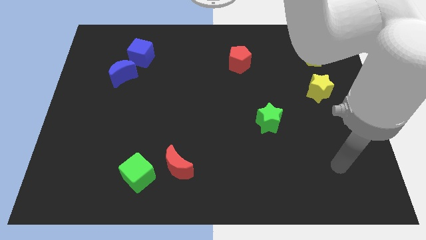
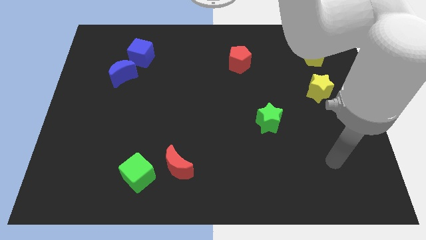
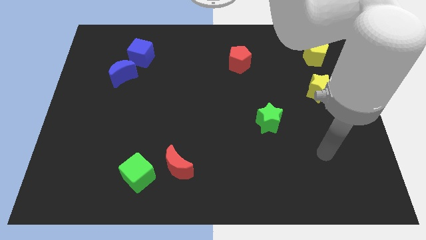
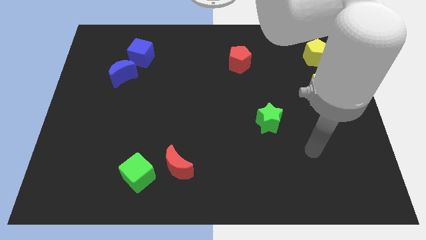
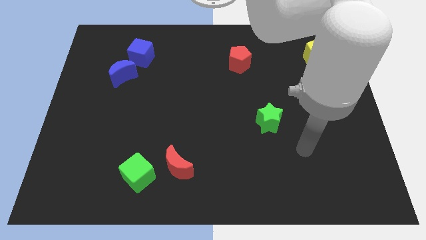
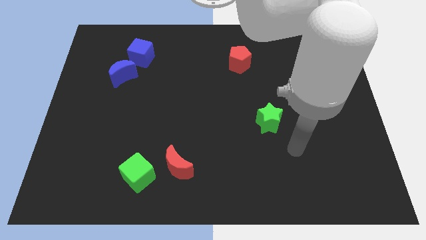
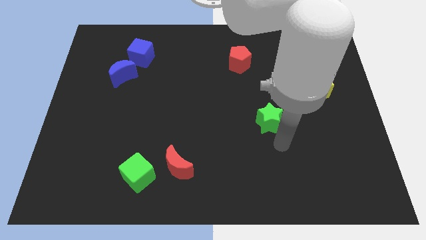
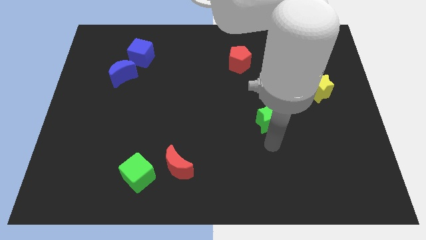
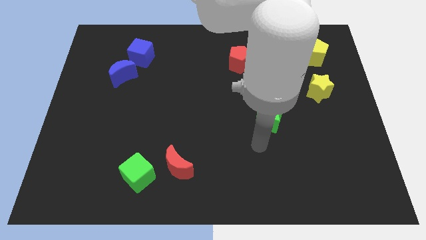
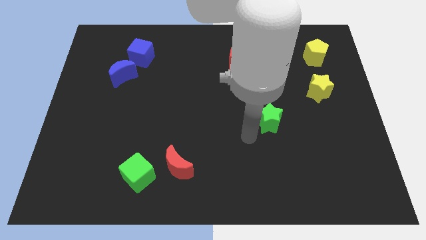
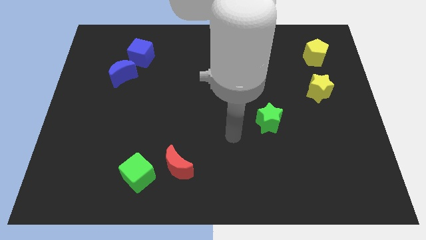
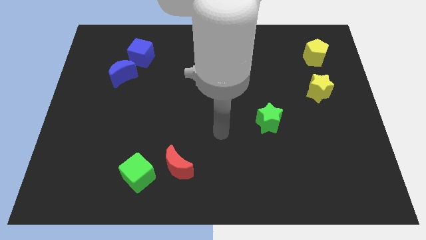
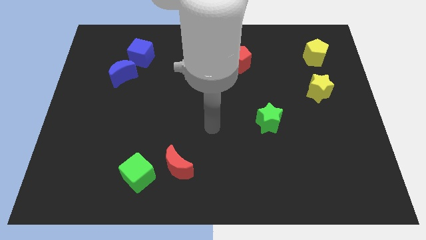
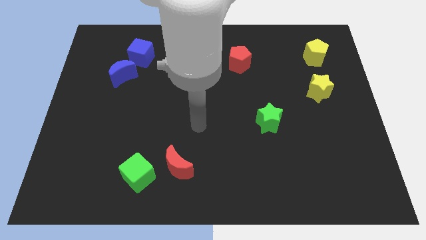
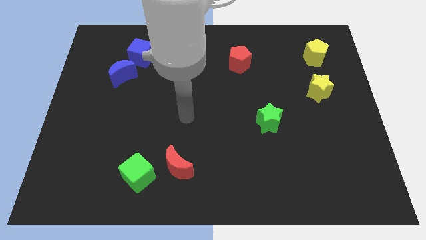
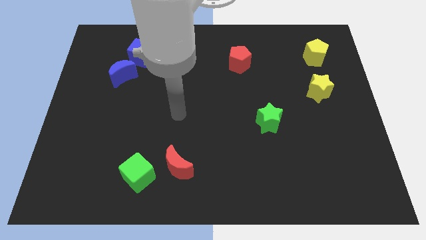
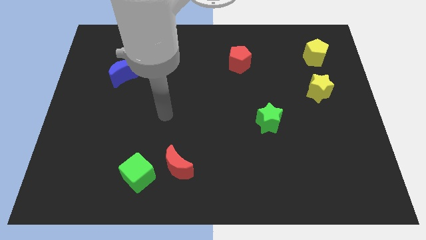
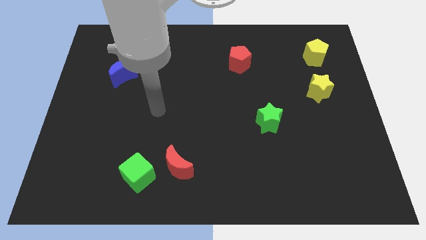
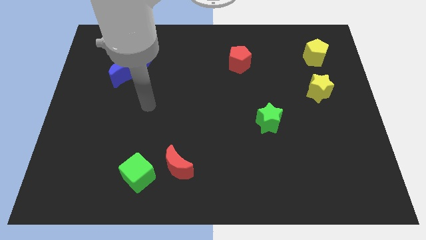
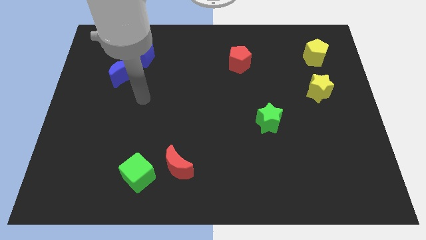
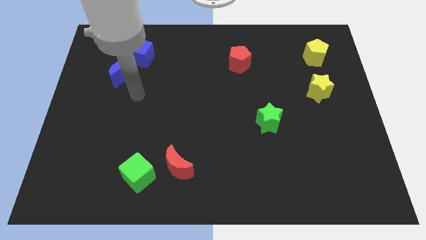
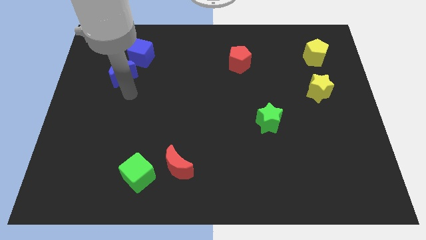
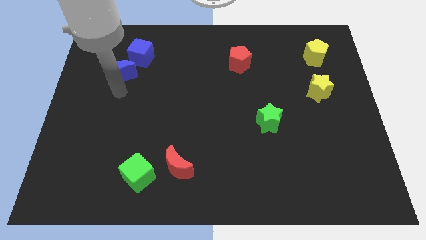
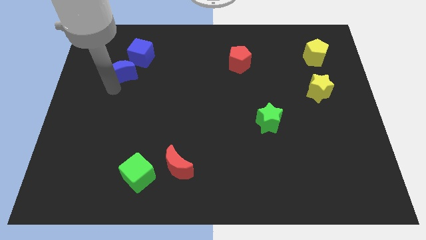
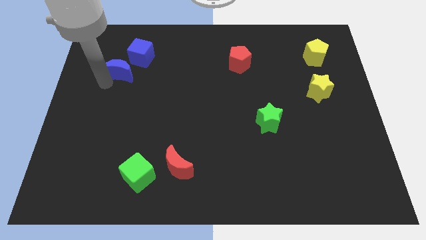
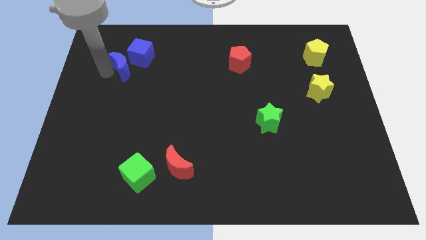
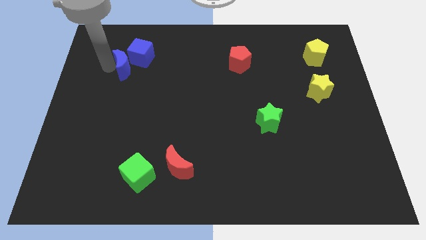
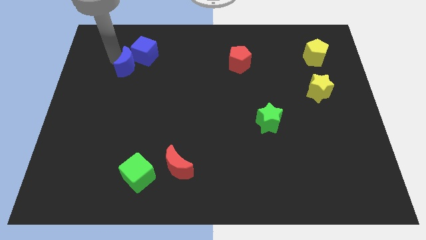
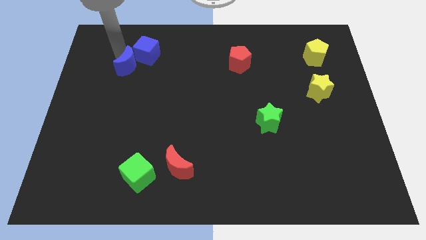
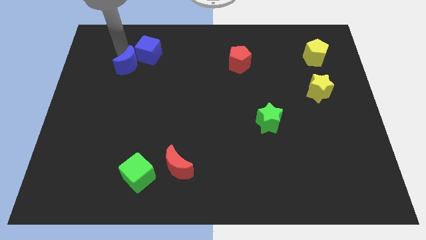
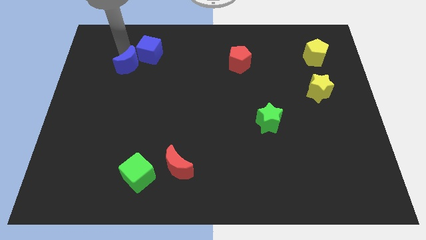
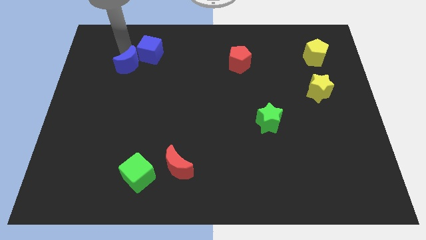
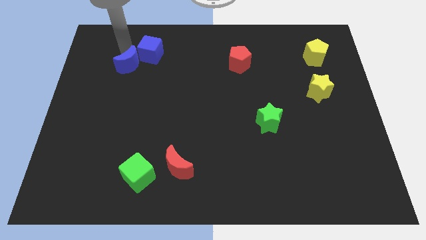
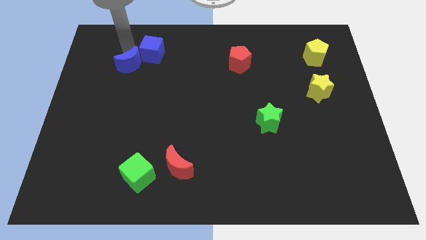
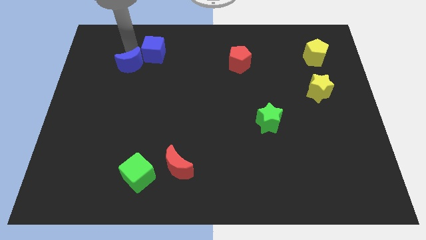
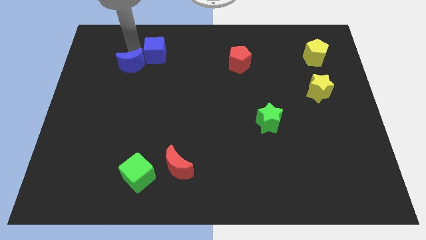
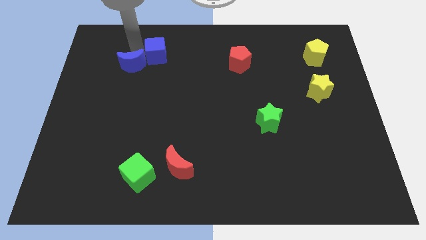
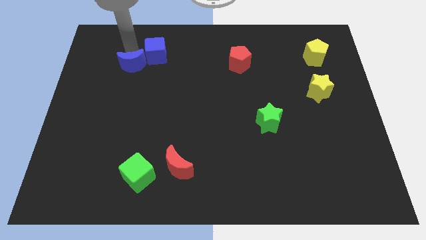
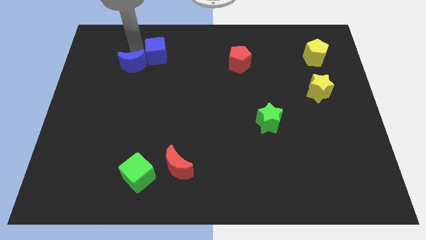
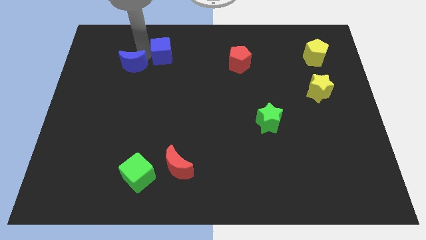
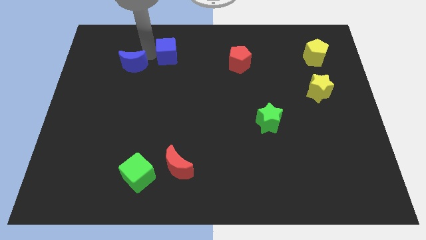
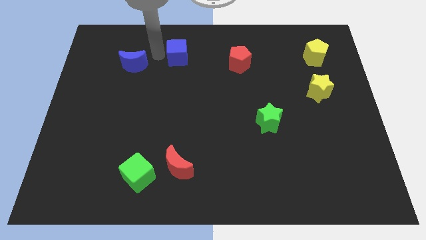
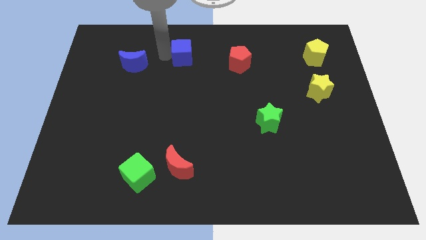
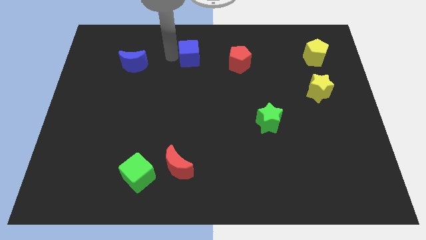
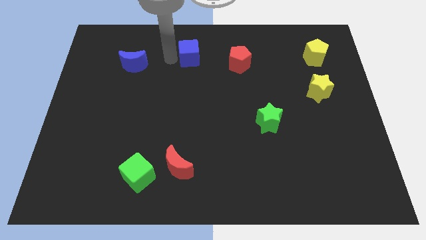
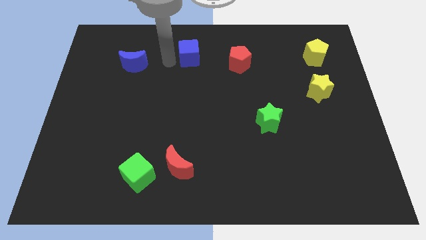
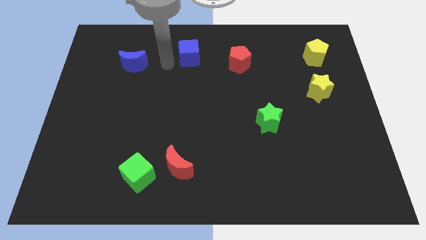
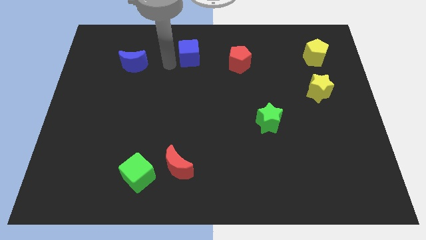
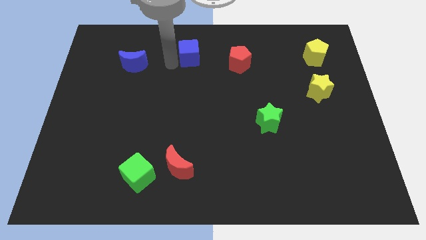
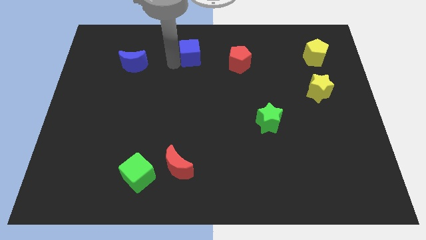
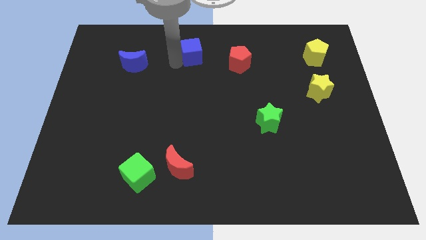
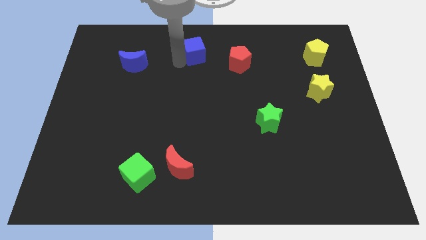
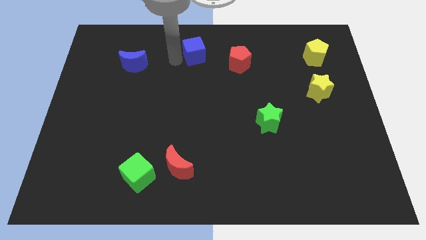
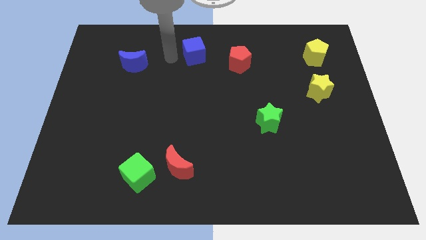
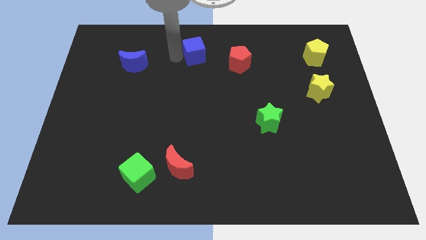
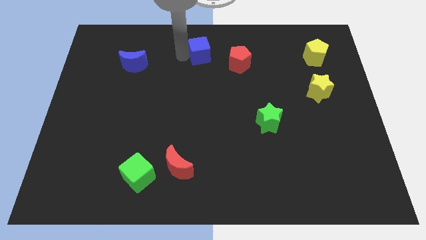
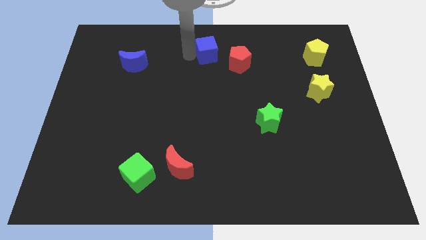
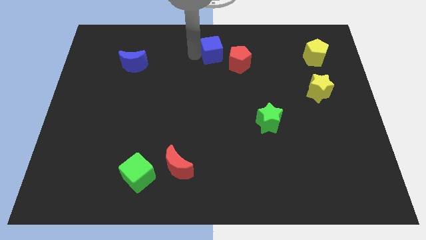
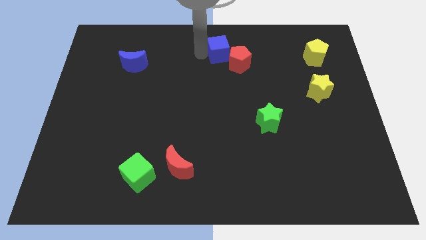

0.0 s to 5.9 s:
push the blue cube to the right

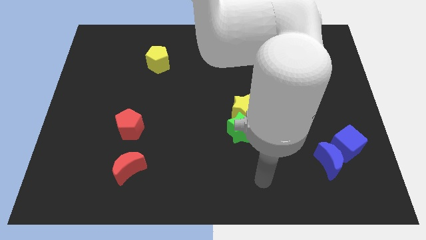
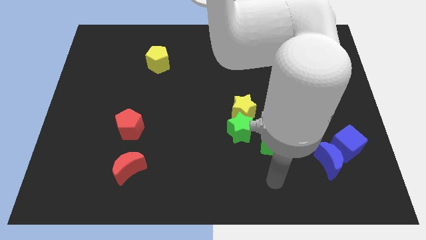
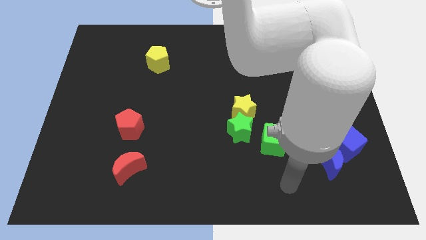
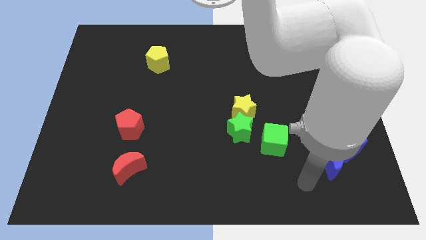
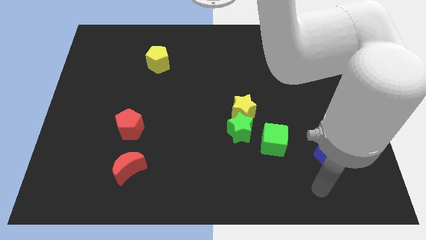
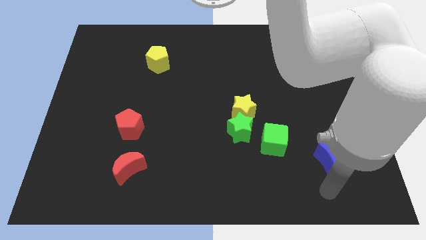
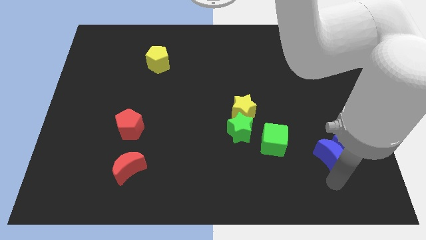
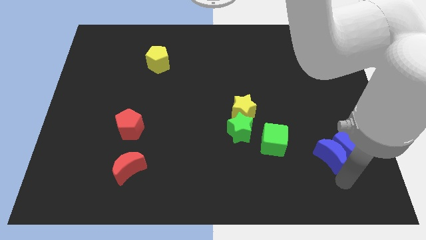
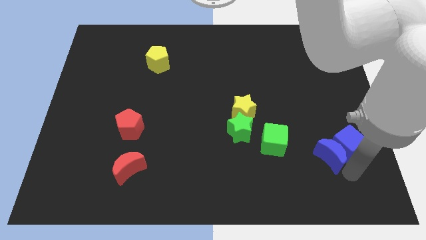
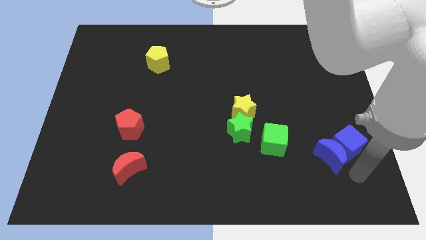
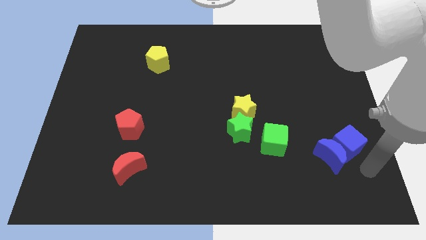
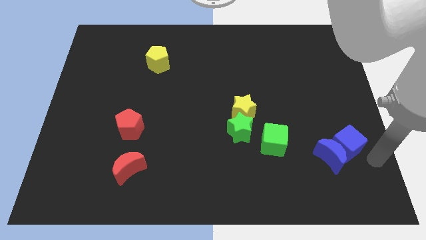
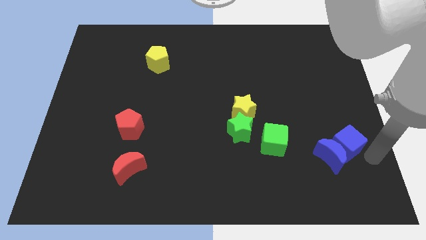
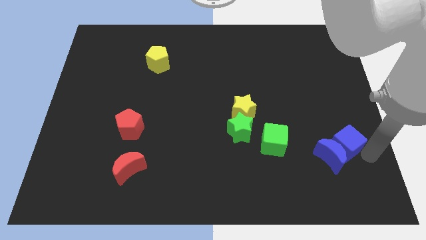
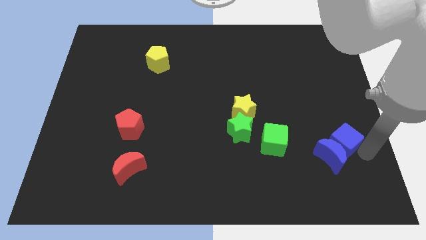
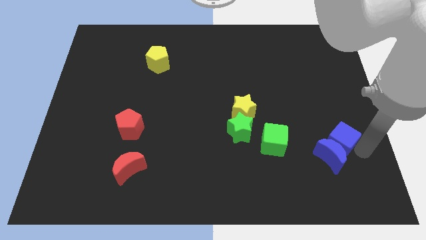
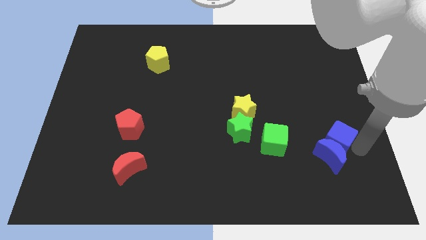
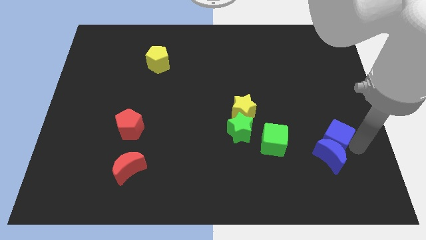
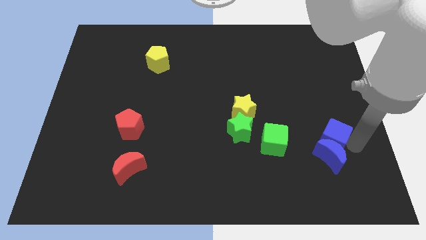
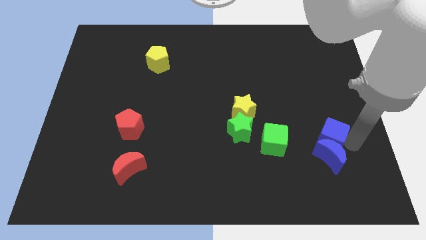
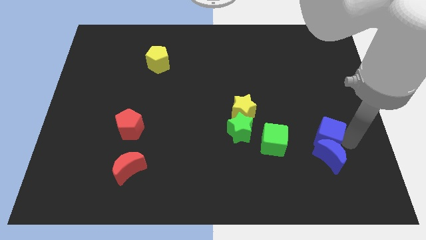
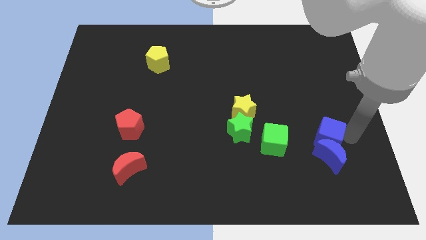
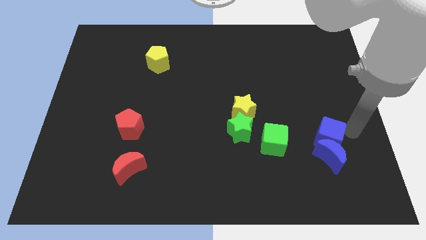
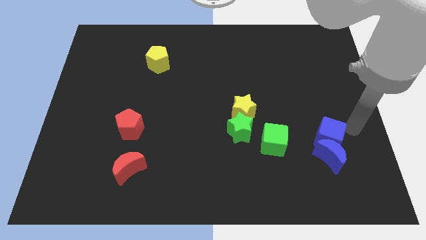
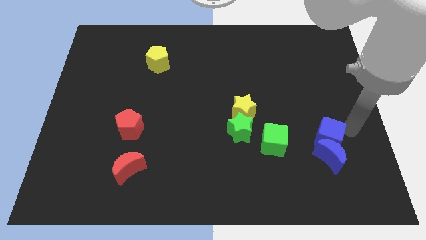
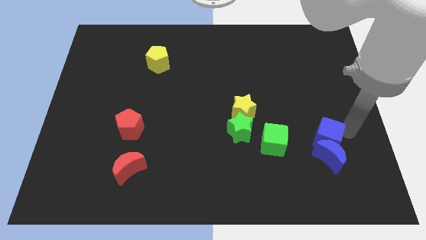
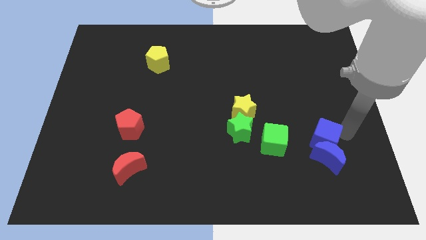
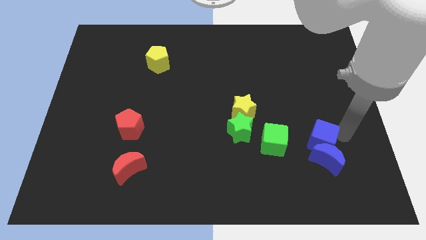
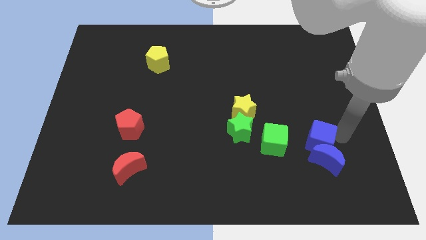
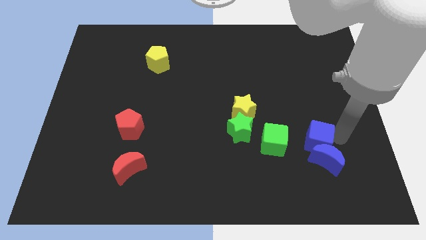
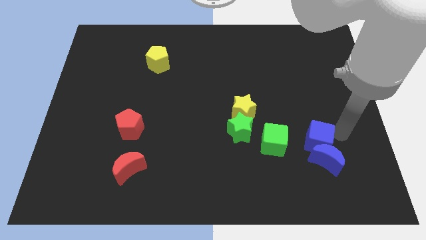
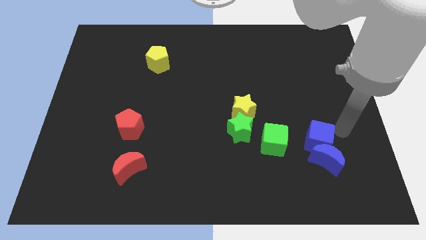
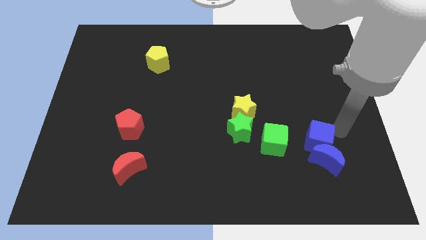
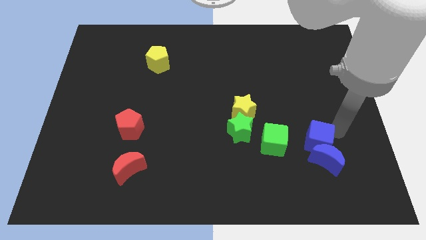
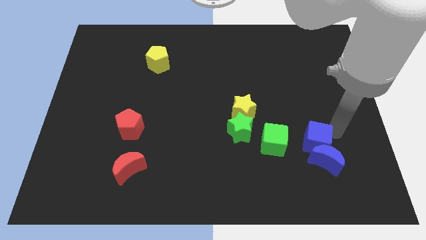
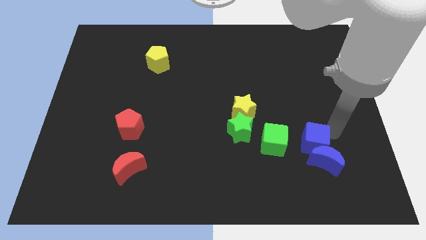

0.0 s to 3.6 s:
push the blue cube somewhat to the left
